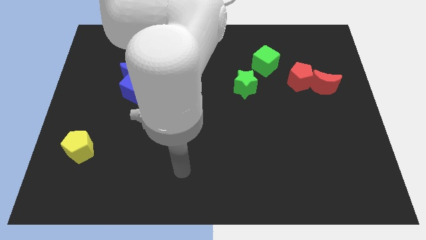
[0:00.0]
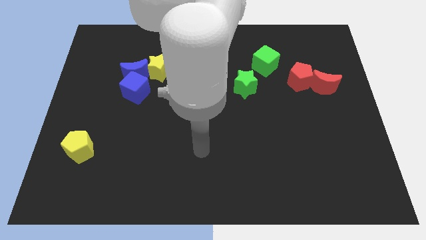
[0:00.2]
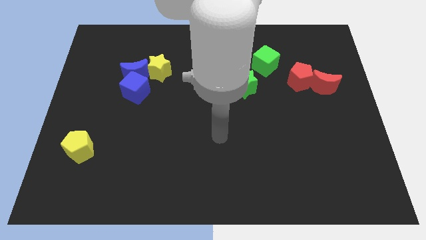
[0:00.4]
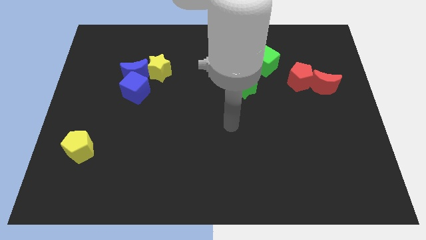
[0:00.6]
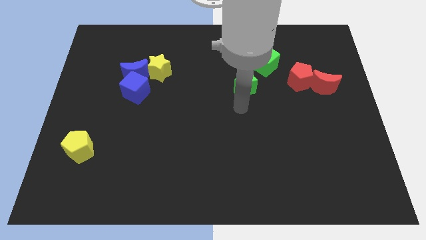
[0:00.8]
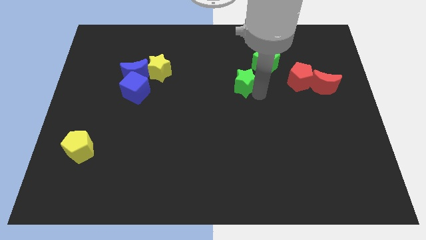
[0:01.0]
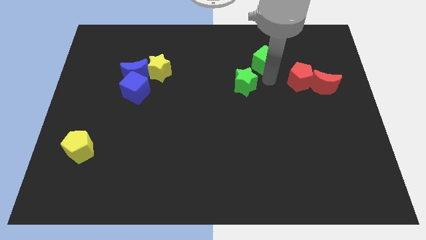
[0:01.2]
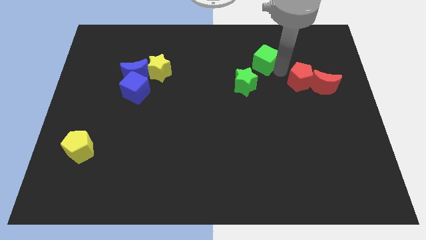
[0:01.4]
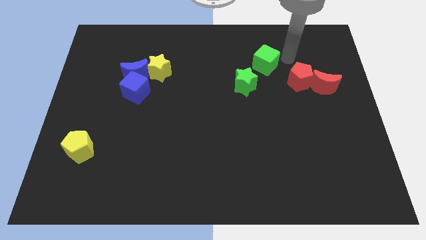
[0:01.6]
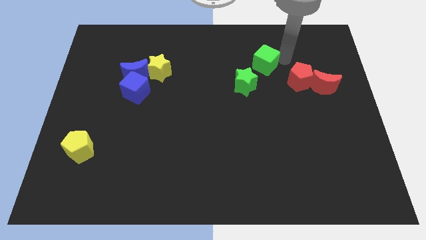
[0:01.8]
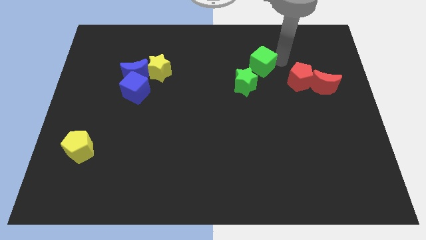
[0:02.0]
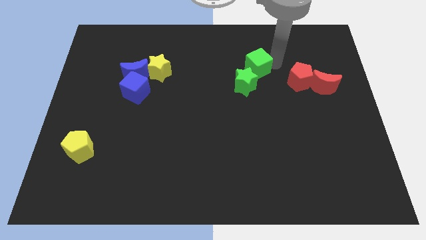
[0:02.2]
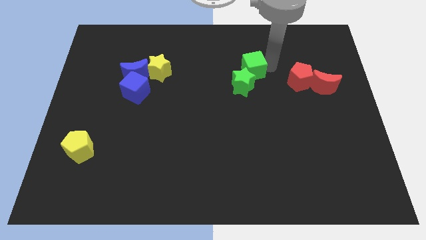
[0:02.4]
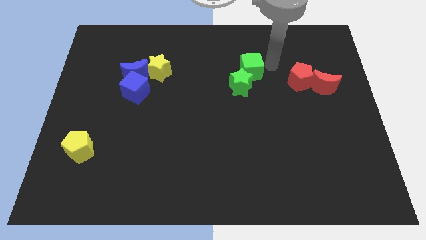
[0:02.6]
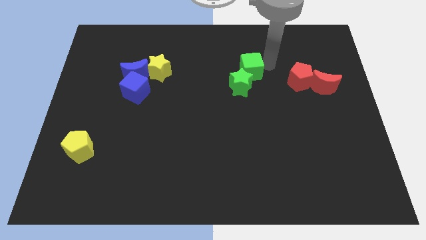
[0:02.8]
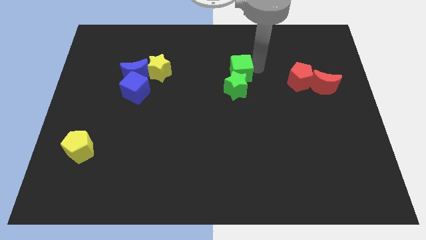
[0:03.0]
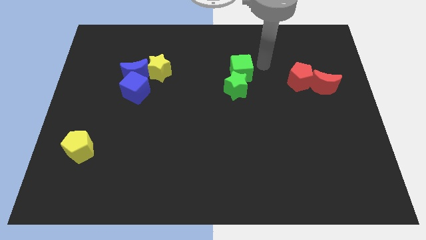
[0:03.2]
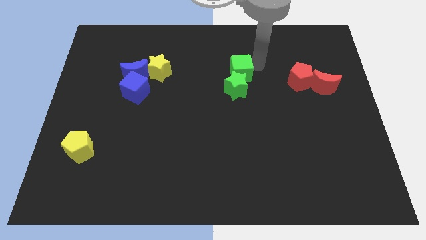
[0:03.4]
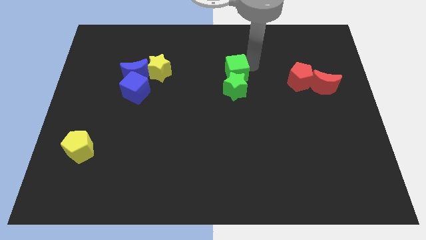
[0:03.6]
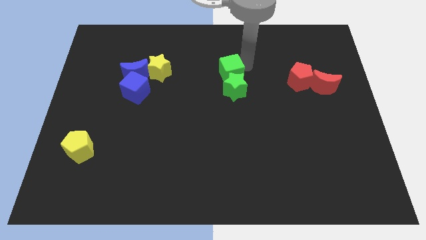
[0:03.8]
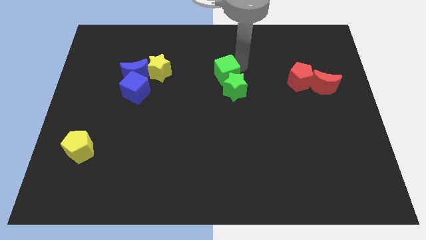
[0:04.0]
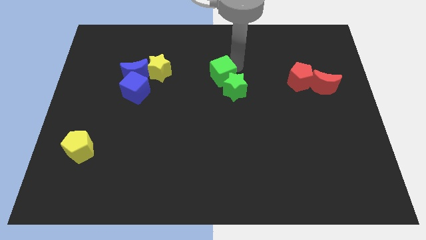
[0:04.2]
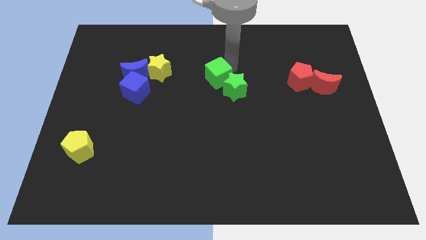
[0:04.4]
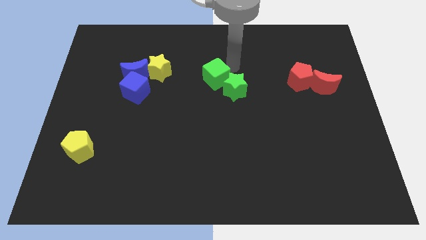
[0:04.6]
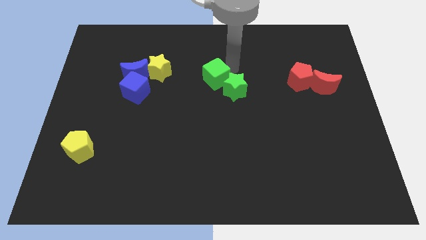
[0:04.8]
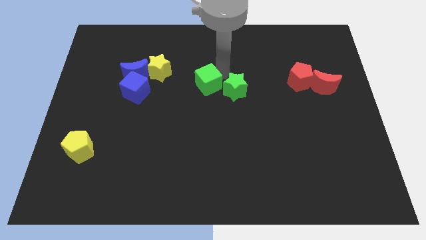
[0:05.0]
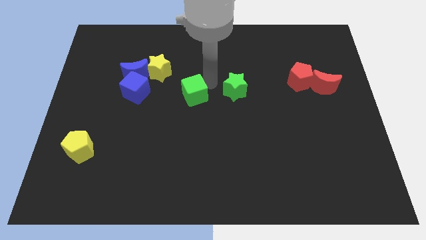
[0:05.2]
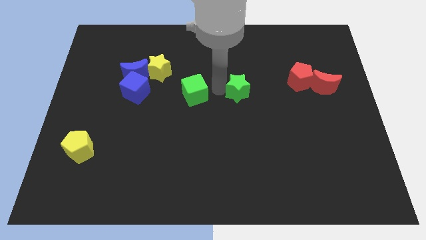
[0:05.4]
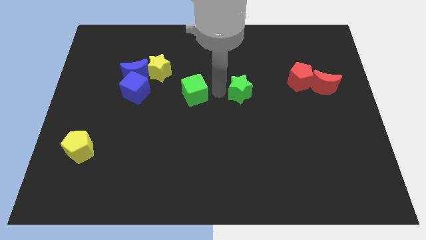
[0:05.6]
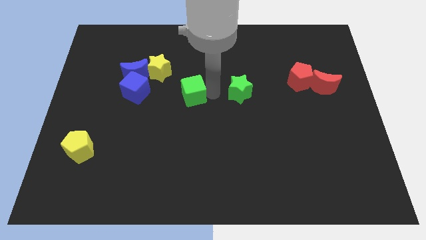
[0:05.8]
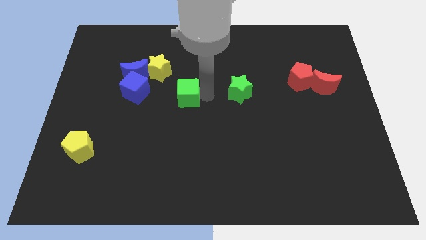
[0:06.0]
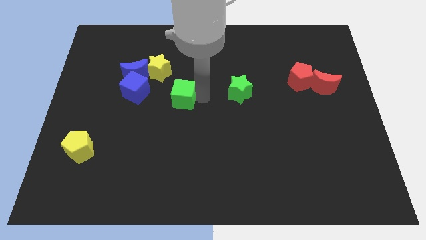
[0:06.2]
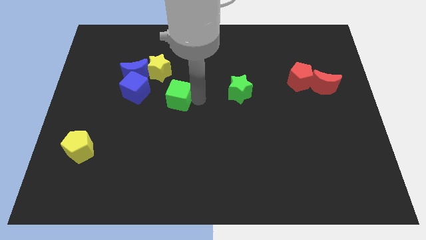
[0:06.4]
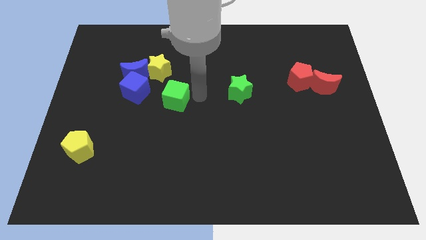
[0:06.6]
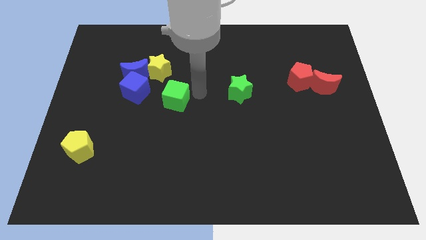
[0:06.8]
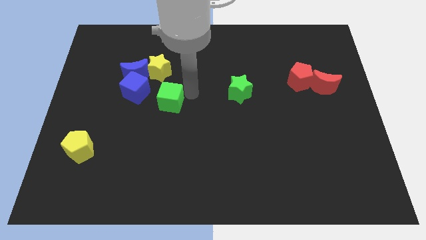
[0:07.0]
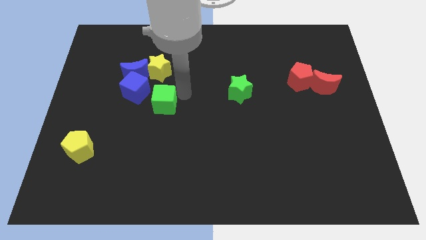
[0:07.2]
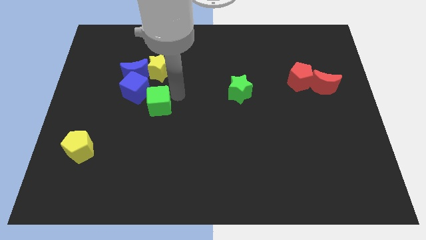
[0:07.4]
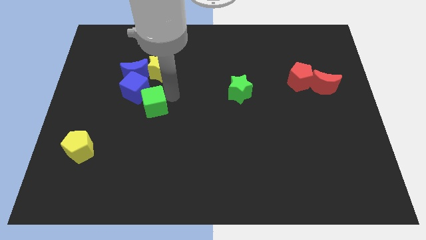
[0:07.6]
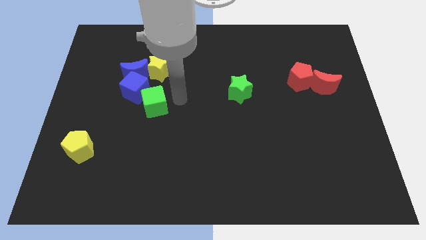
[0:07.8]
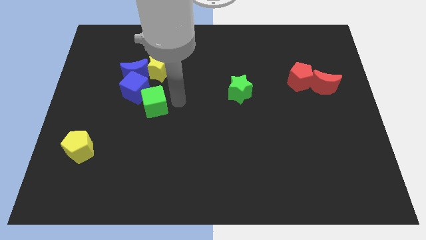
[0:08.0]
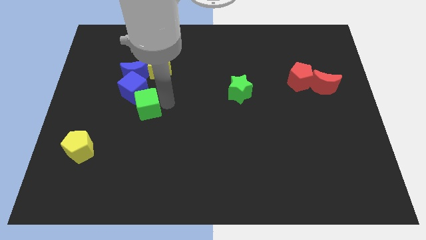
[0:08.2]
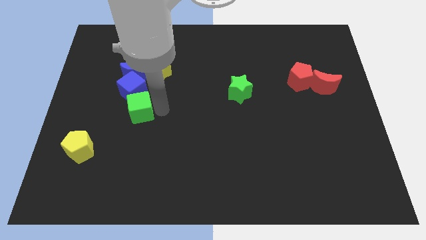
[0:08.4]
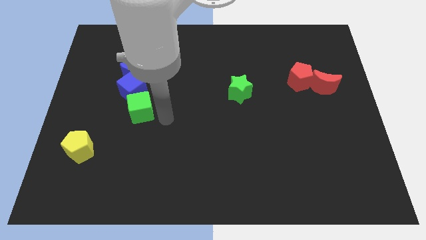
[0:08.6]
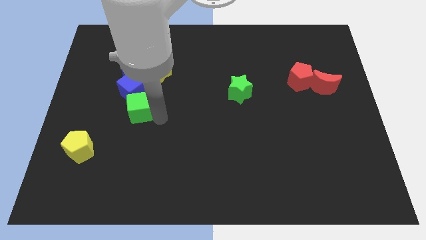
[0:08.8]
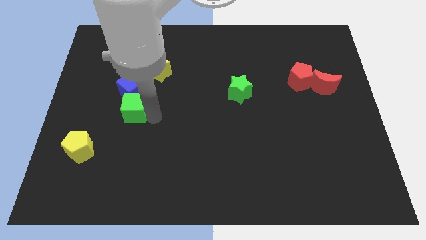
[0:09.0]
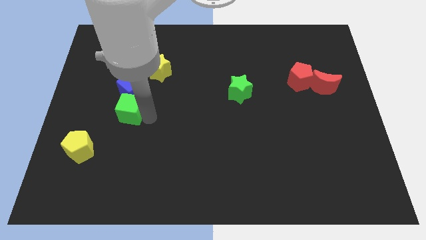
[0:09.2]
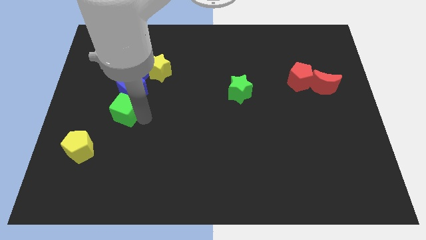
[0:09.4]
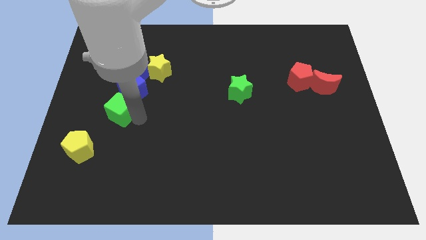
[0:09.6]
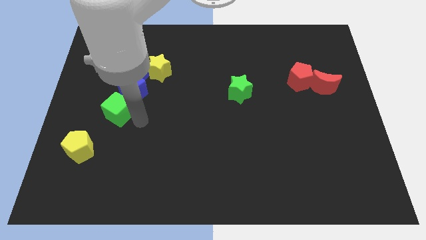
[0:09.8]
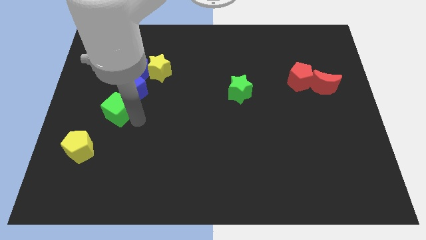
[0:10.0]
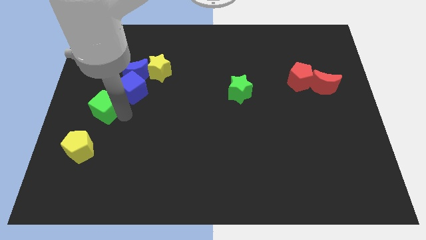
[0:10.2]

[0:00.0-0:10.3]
put the green cube to the left side of the board

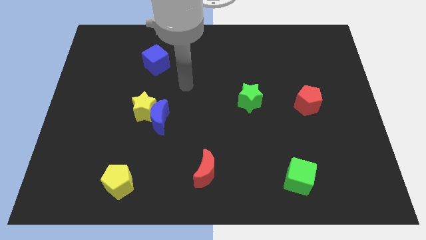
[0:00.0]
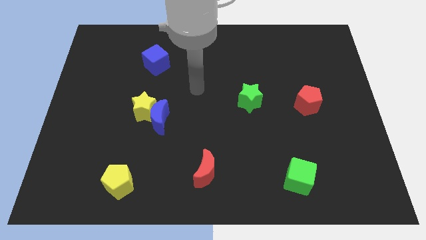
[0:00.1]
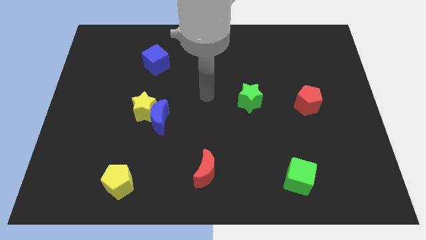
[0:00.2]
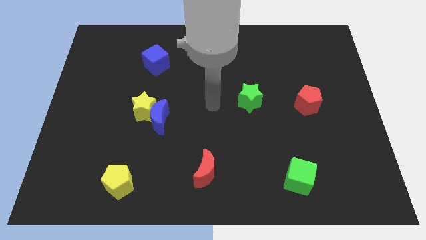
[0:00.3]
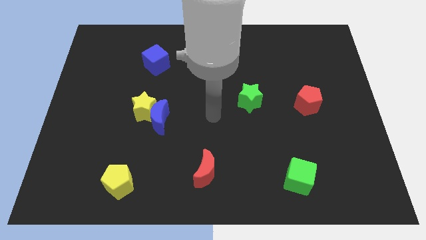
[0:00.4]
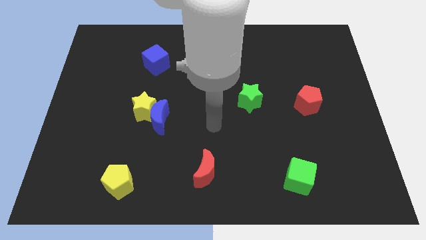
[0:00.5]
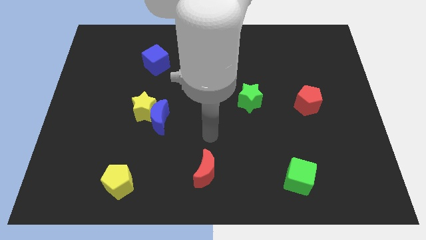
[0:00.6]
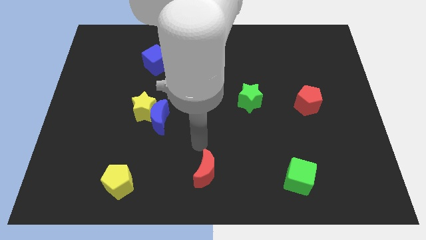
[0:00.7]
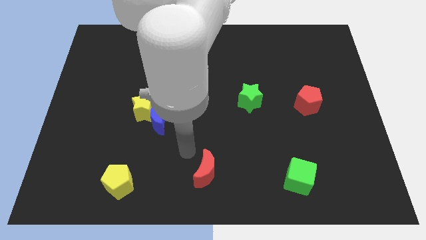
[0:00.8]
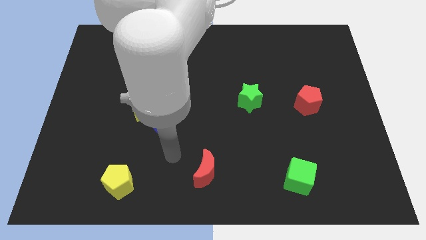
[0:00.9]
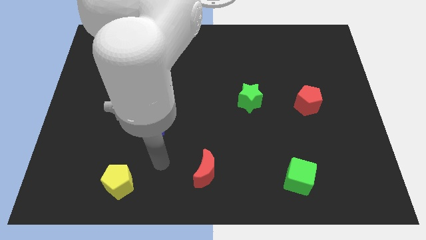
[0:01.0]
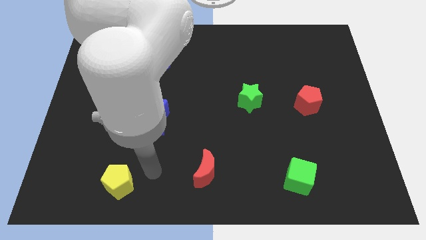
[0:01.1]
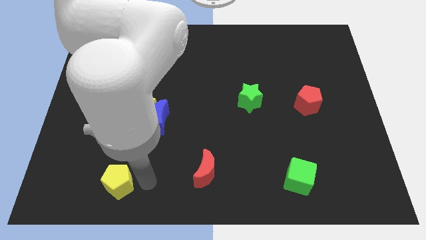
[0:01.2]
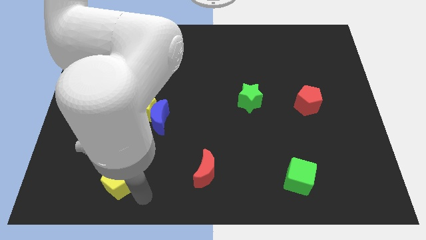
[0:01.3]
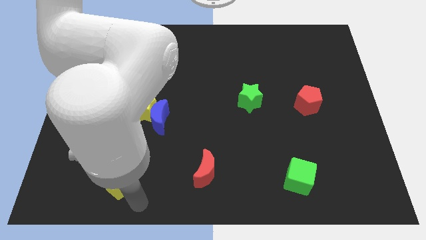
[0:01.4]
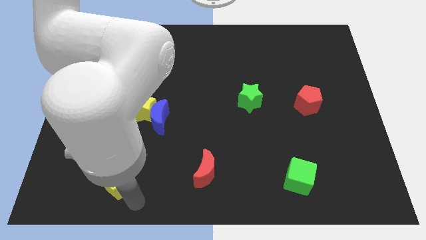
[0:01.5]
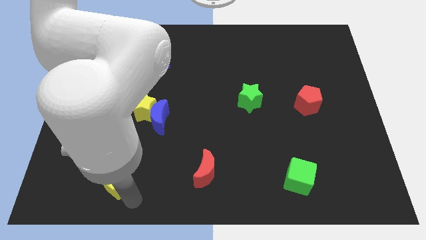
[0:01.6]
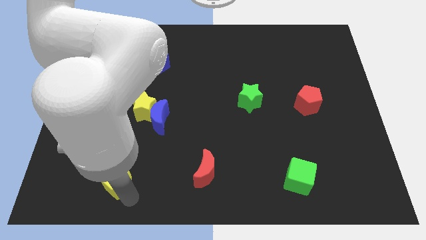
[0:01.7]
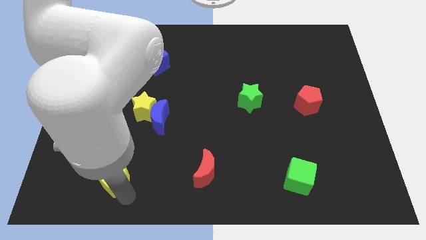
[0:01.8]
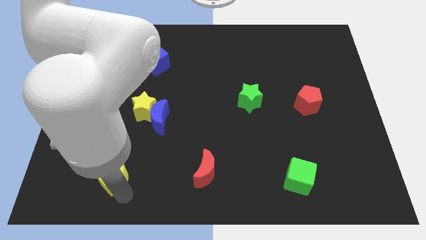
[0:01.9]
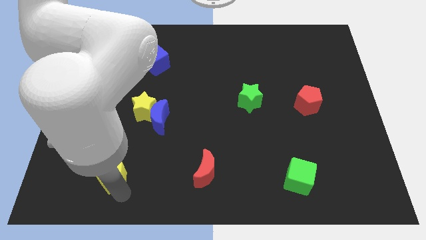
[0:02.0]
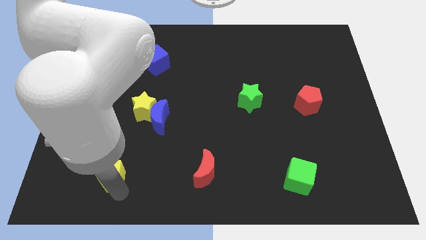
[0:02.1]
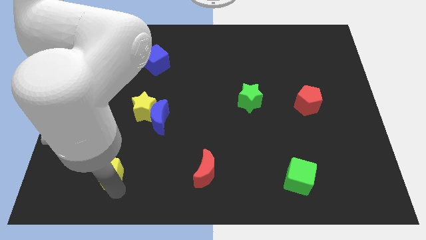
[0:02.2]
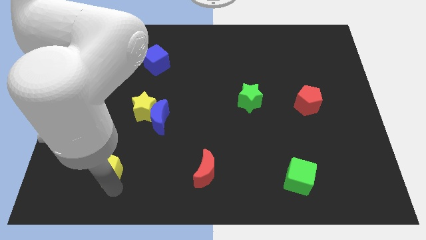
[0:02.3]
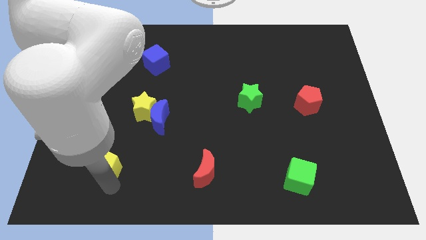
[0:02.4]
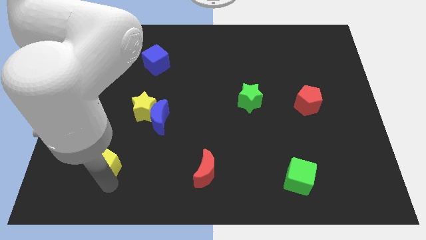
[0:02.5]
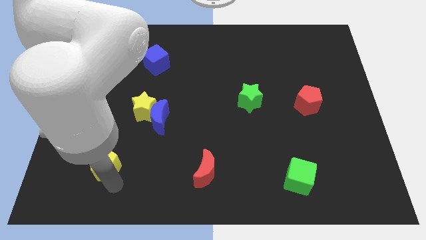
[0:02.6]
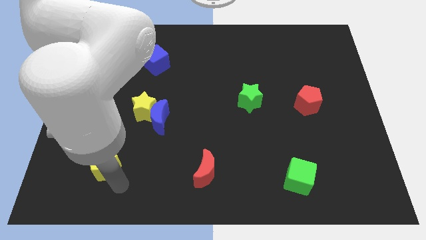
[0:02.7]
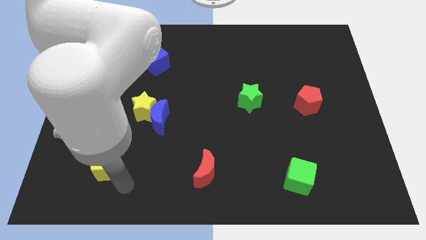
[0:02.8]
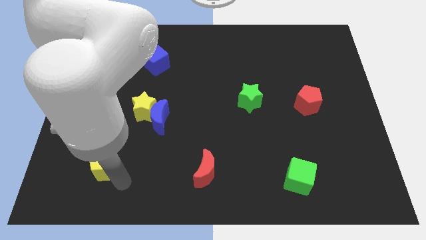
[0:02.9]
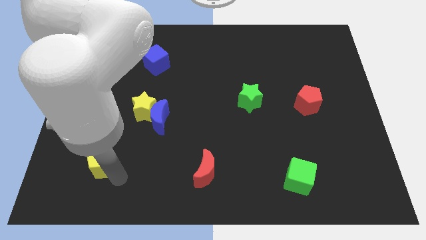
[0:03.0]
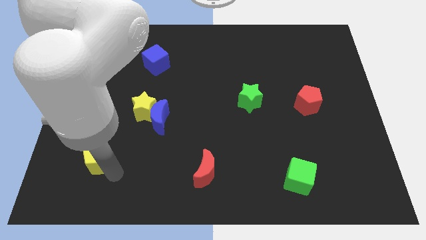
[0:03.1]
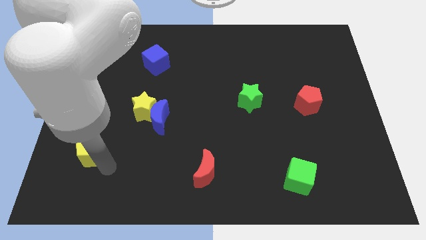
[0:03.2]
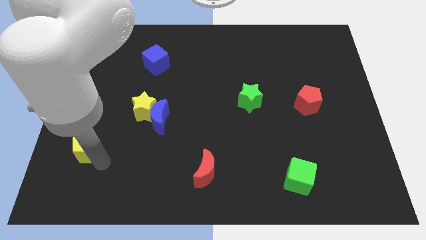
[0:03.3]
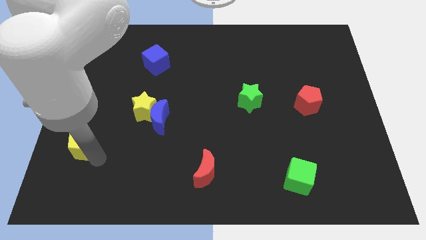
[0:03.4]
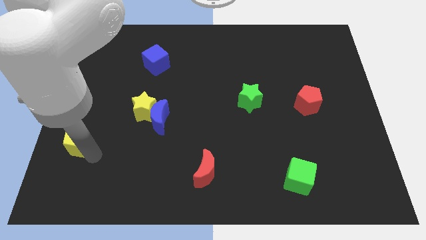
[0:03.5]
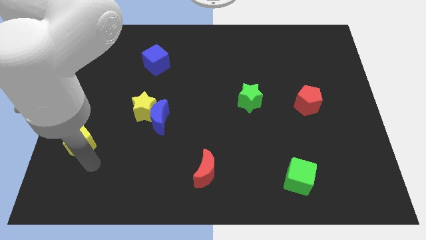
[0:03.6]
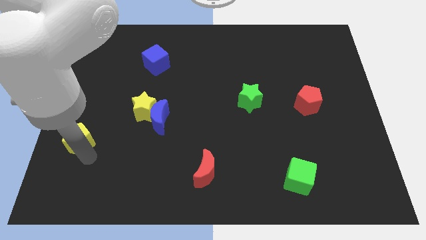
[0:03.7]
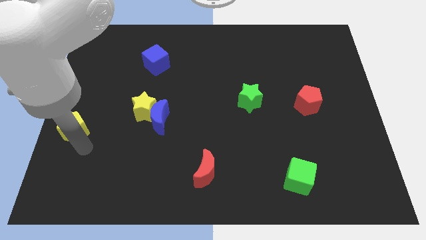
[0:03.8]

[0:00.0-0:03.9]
move the yellow pentagon to the left side
